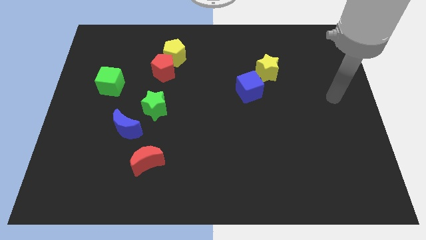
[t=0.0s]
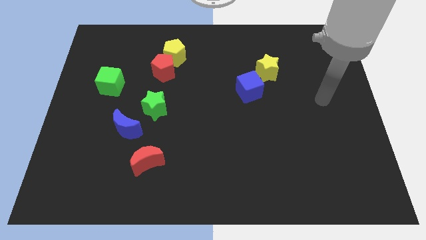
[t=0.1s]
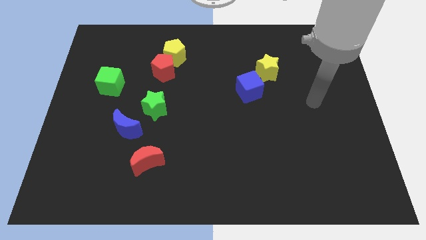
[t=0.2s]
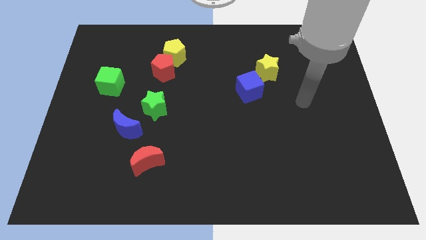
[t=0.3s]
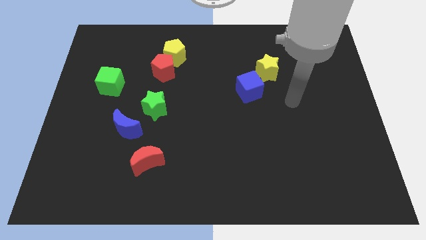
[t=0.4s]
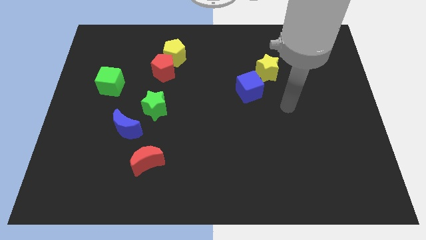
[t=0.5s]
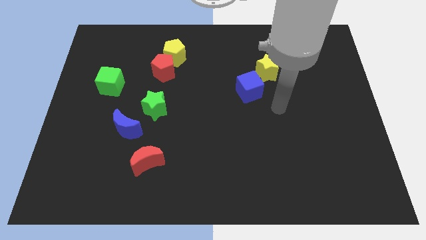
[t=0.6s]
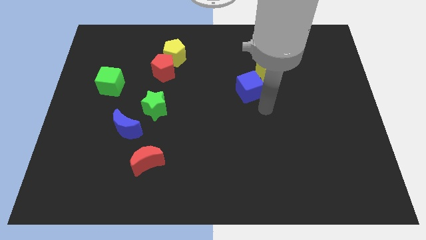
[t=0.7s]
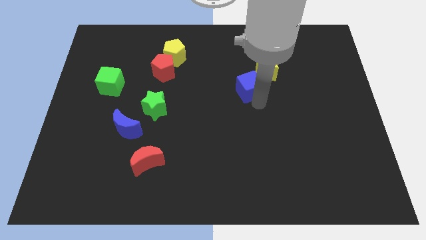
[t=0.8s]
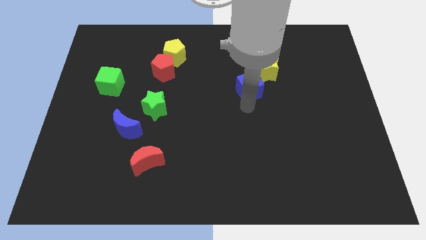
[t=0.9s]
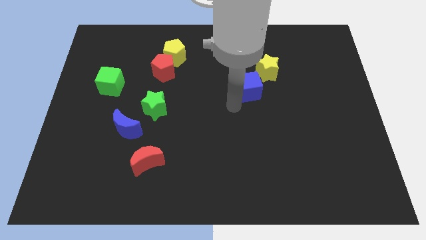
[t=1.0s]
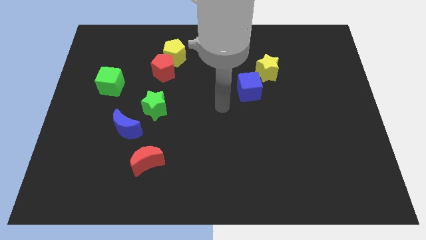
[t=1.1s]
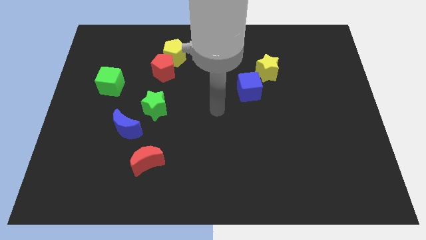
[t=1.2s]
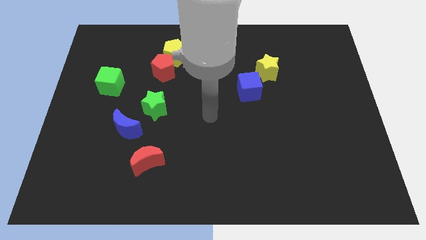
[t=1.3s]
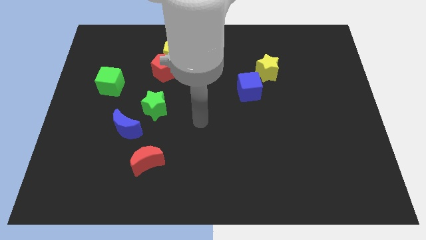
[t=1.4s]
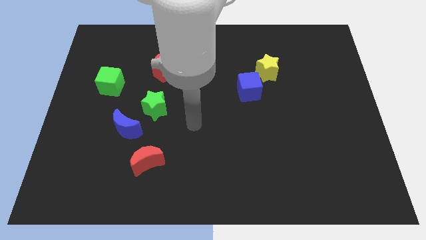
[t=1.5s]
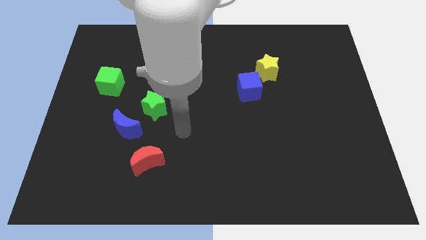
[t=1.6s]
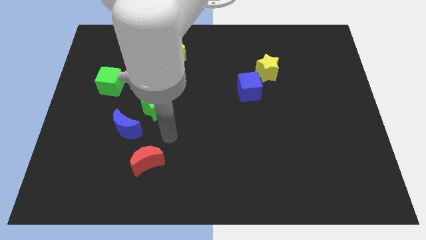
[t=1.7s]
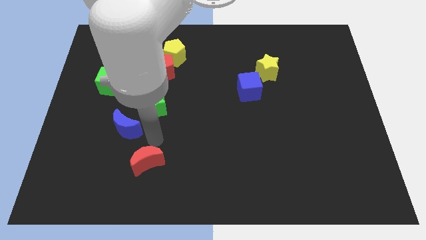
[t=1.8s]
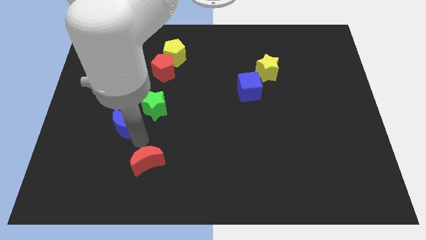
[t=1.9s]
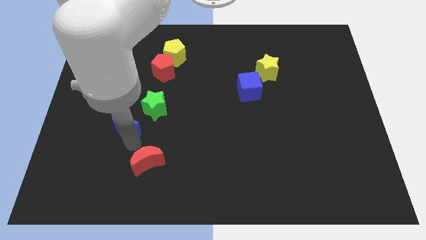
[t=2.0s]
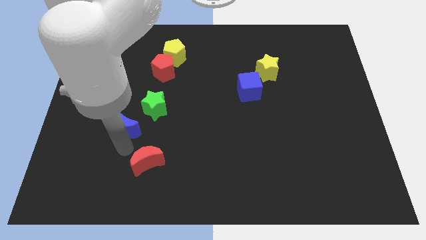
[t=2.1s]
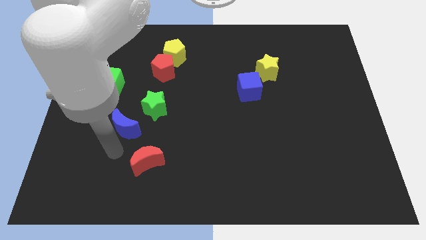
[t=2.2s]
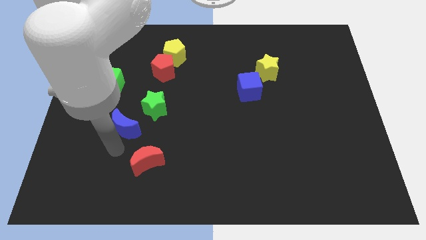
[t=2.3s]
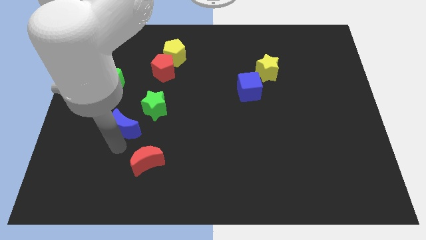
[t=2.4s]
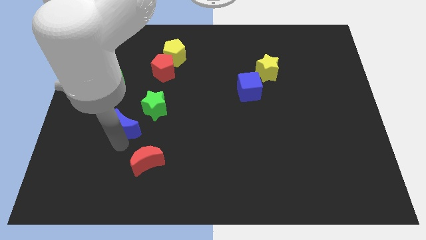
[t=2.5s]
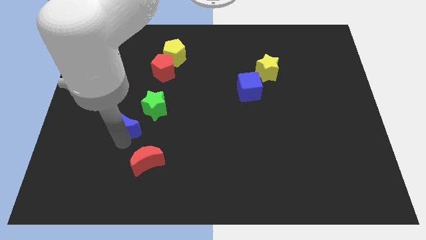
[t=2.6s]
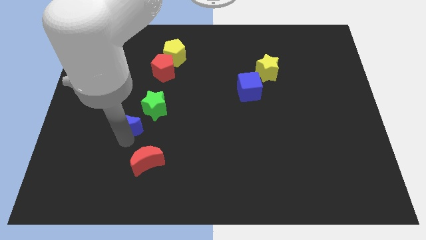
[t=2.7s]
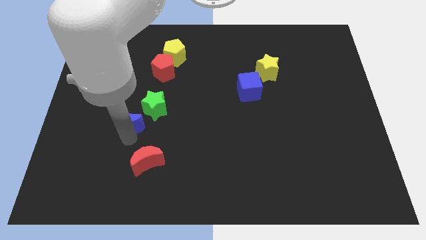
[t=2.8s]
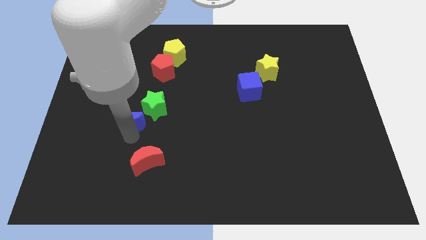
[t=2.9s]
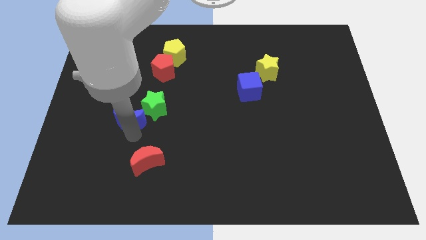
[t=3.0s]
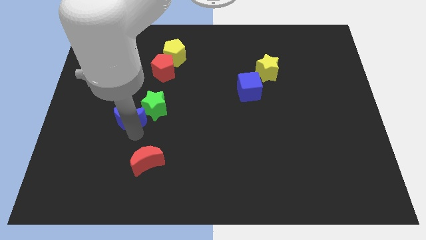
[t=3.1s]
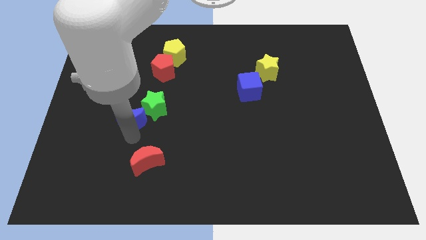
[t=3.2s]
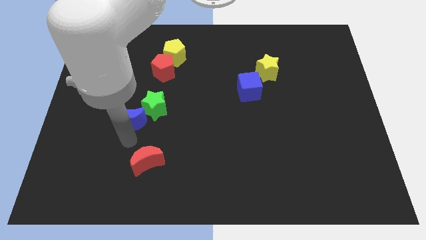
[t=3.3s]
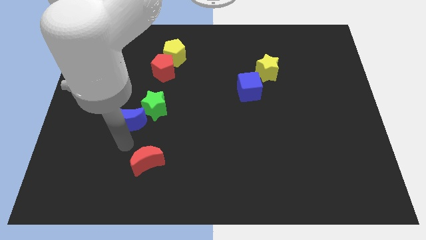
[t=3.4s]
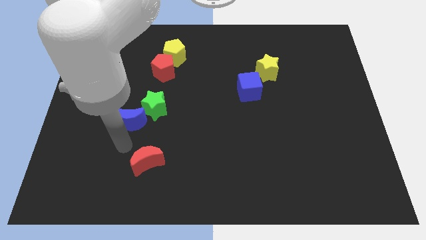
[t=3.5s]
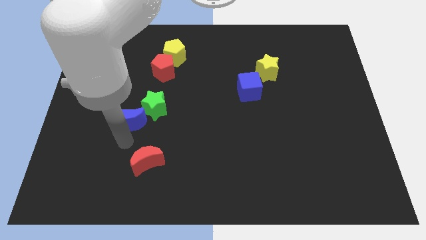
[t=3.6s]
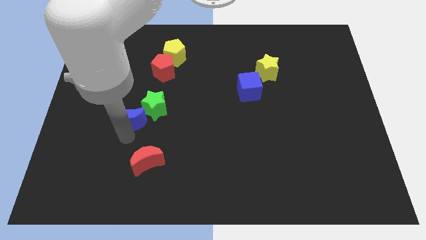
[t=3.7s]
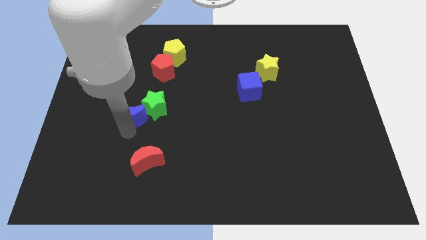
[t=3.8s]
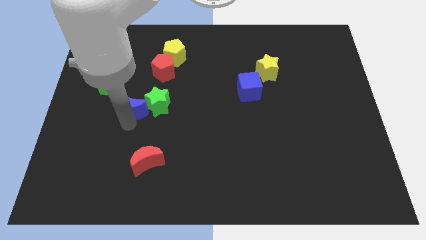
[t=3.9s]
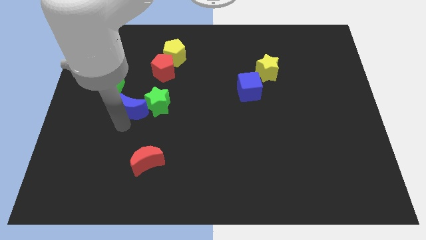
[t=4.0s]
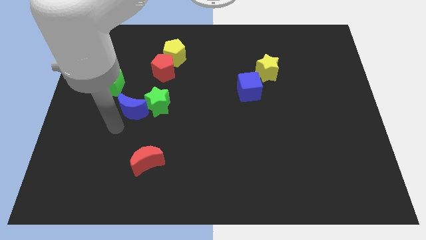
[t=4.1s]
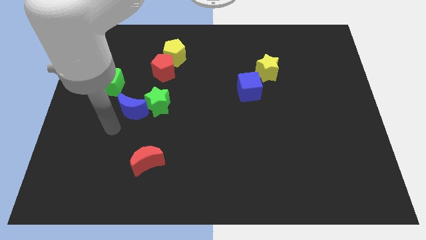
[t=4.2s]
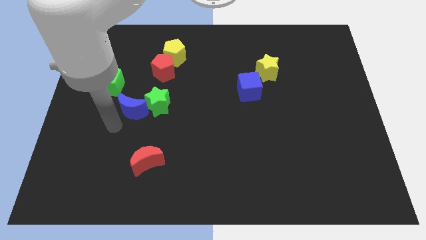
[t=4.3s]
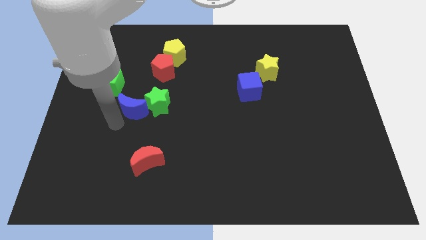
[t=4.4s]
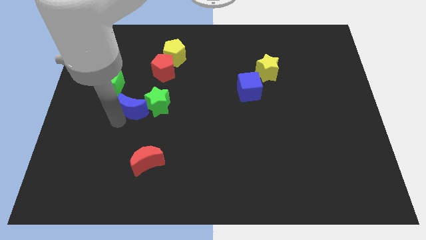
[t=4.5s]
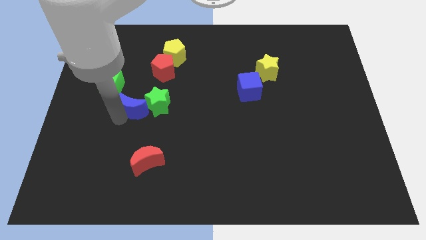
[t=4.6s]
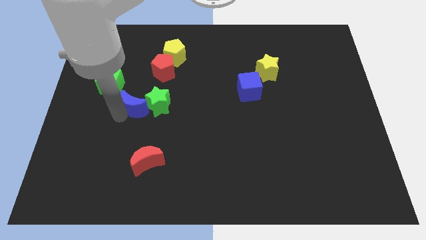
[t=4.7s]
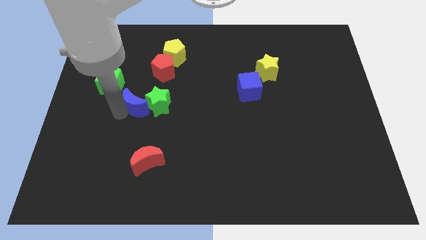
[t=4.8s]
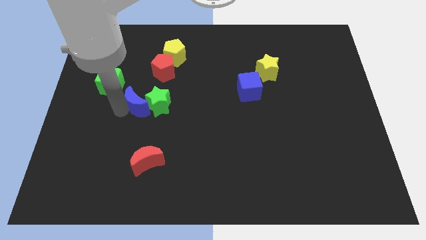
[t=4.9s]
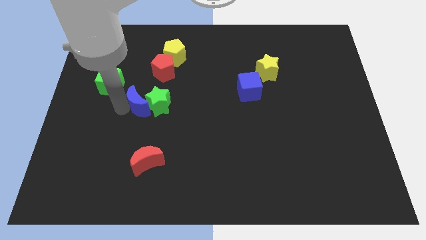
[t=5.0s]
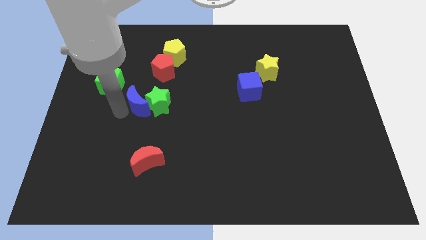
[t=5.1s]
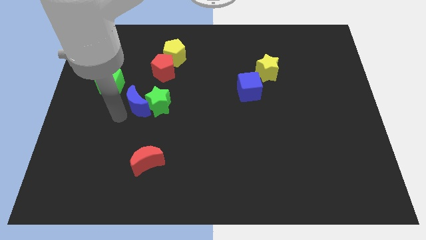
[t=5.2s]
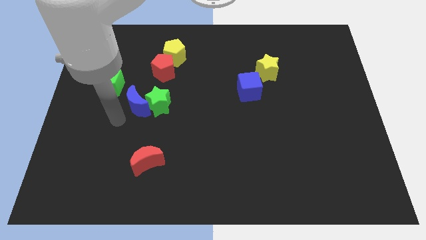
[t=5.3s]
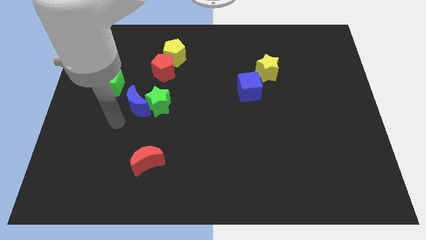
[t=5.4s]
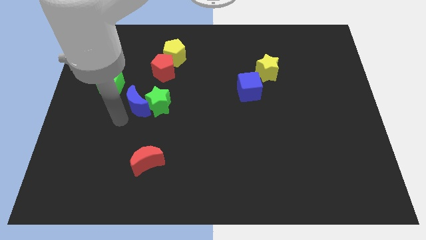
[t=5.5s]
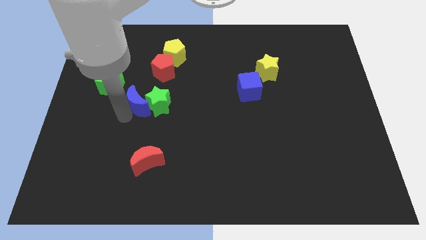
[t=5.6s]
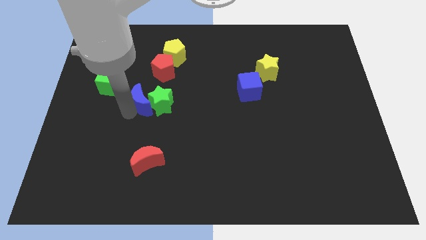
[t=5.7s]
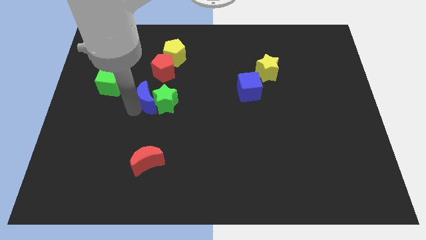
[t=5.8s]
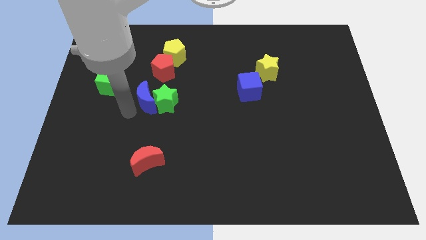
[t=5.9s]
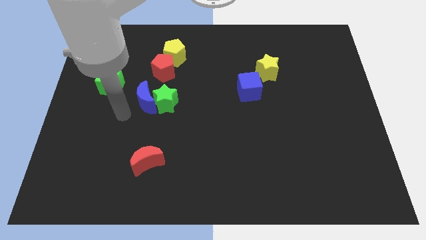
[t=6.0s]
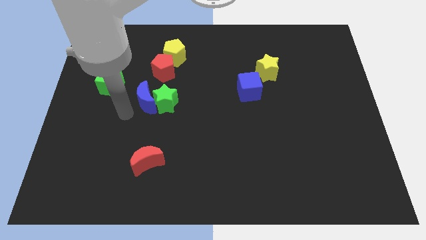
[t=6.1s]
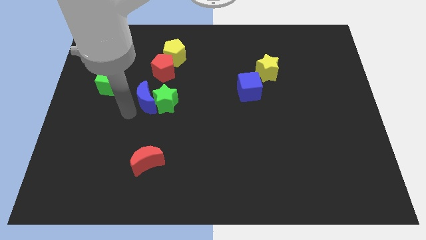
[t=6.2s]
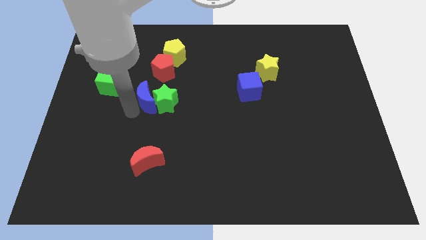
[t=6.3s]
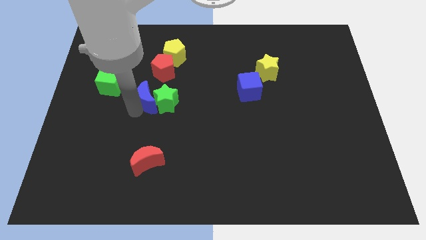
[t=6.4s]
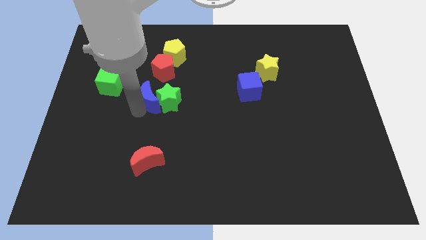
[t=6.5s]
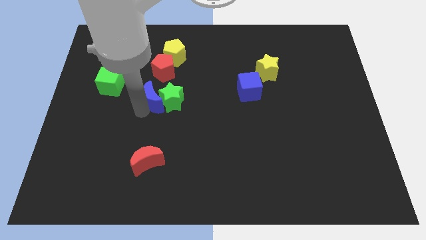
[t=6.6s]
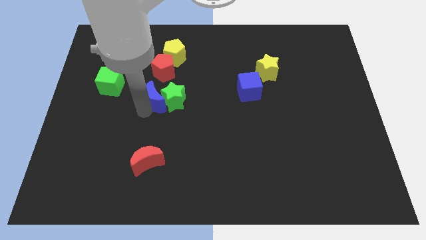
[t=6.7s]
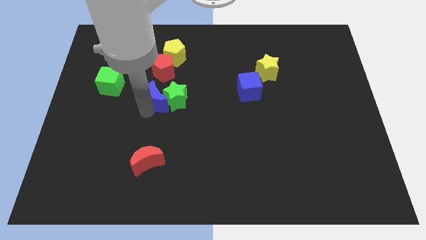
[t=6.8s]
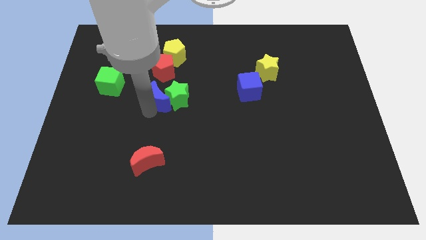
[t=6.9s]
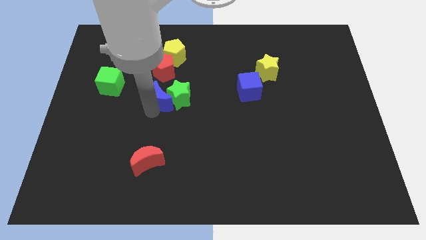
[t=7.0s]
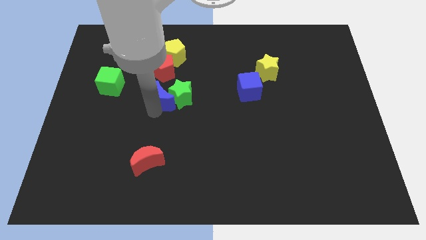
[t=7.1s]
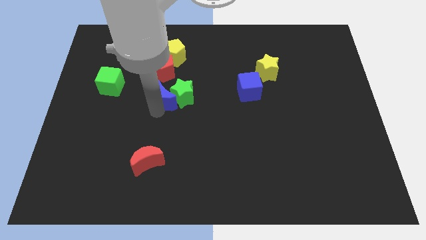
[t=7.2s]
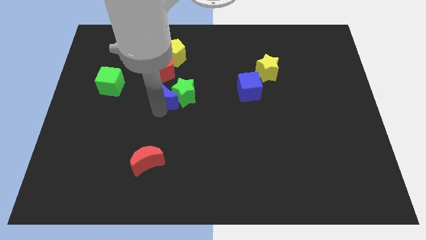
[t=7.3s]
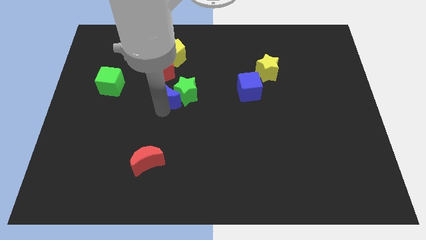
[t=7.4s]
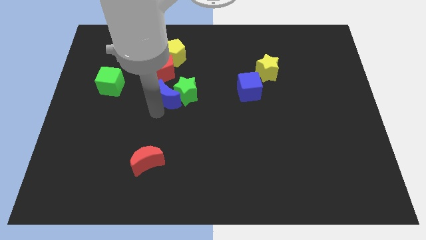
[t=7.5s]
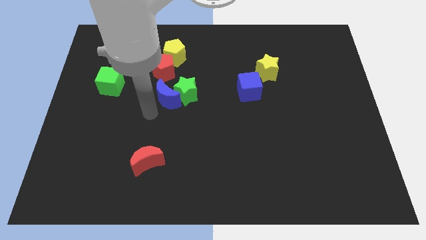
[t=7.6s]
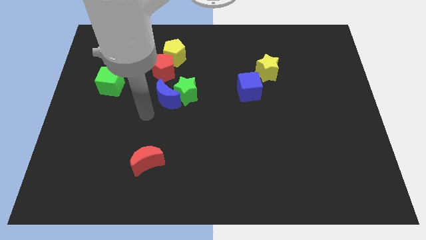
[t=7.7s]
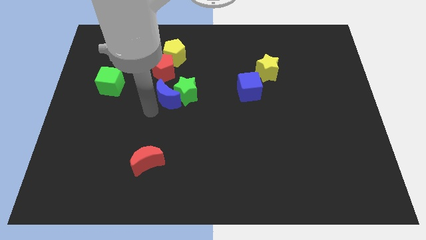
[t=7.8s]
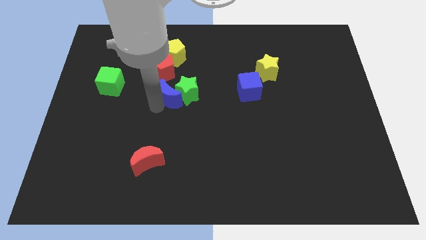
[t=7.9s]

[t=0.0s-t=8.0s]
push the blue moon to the bottom right of the red pentagon
